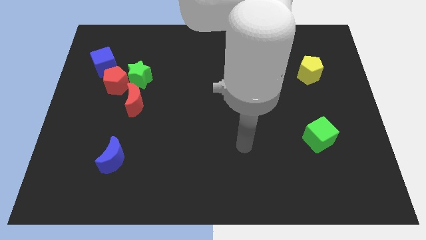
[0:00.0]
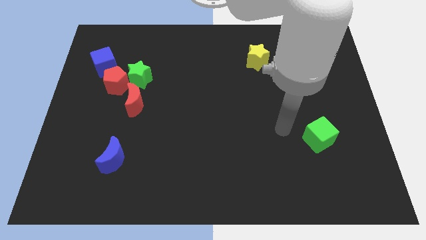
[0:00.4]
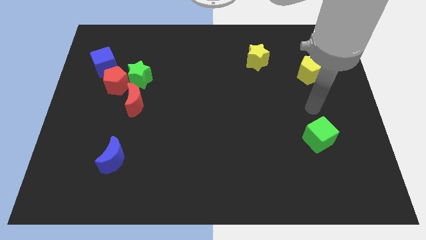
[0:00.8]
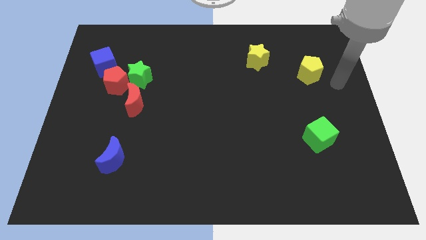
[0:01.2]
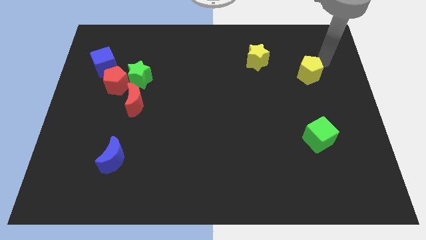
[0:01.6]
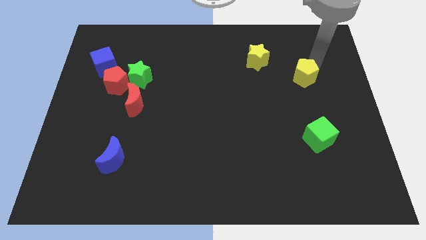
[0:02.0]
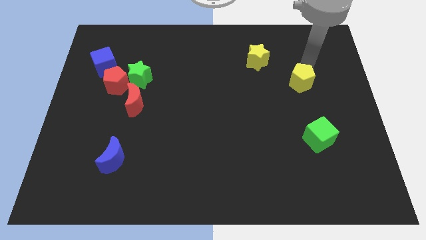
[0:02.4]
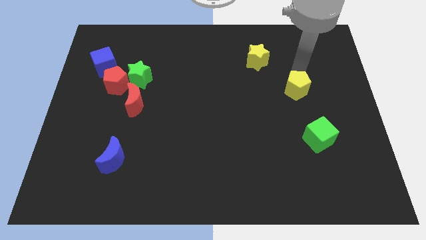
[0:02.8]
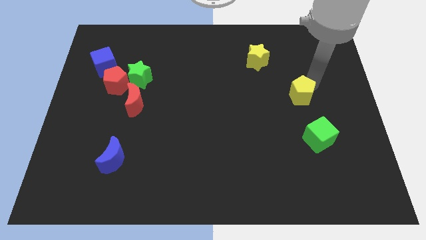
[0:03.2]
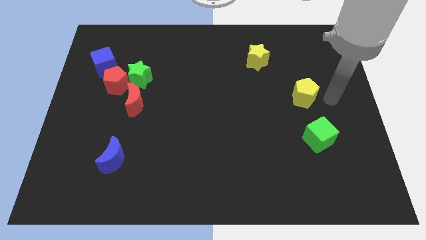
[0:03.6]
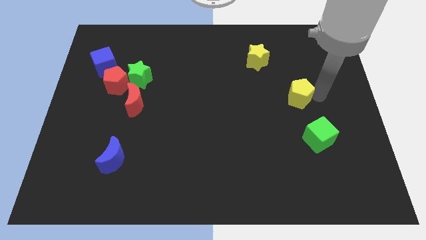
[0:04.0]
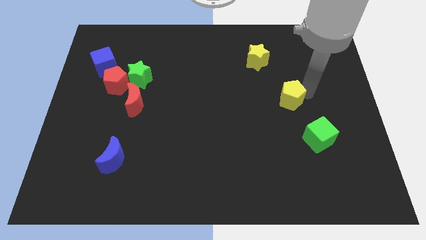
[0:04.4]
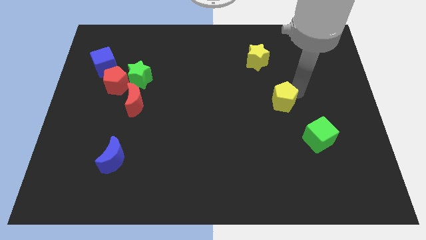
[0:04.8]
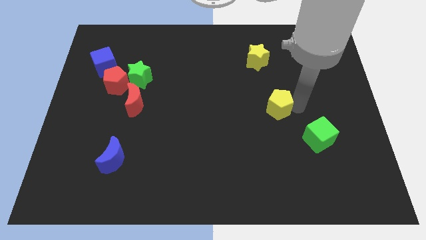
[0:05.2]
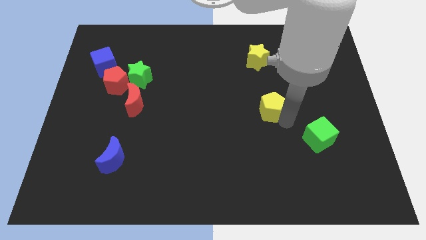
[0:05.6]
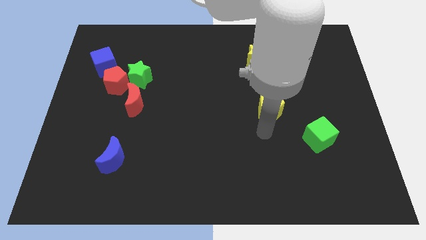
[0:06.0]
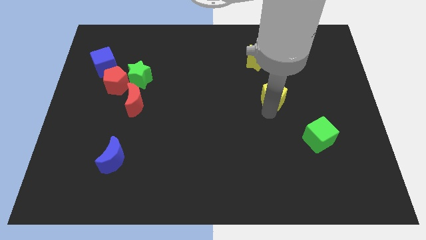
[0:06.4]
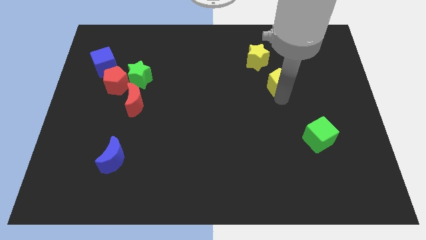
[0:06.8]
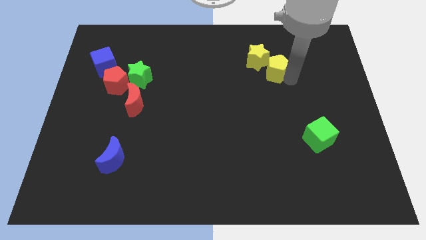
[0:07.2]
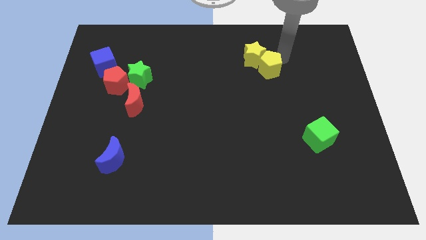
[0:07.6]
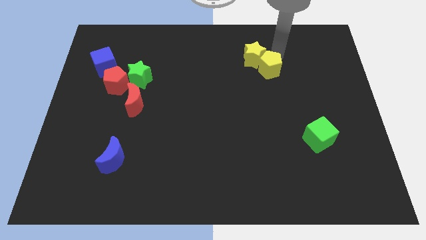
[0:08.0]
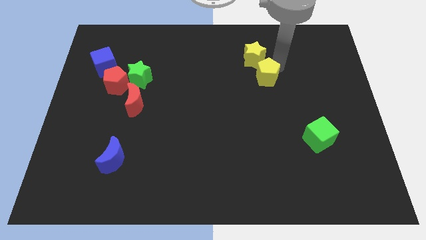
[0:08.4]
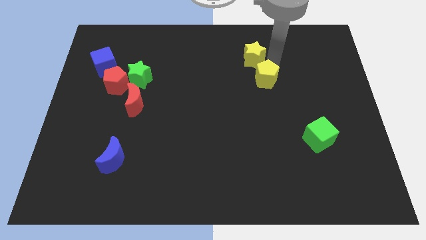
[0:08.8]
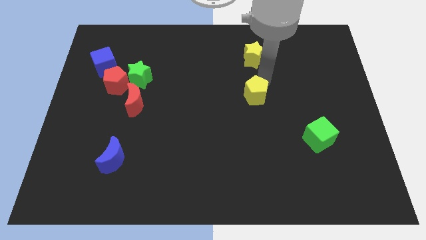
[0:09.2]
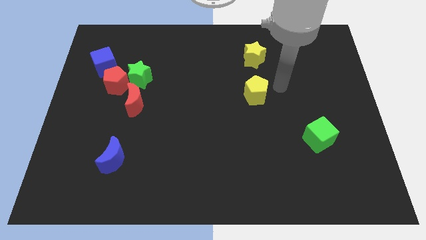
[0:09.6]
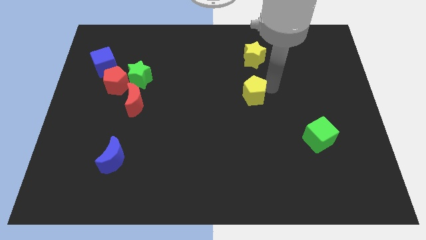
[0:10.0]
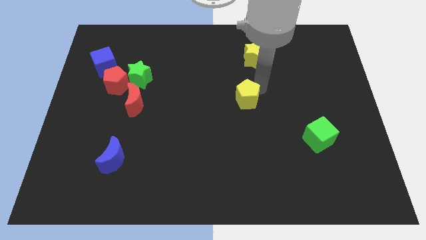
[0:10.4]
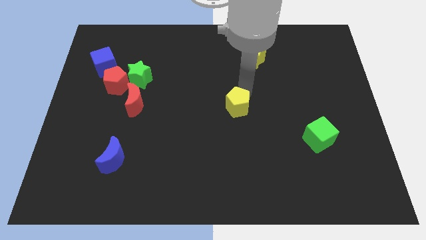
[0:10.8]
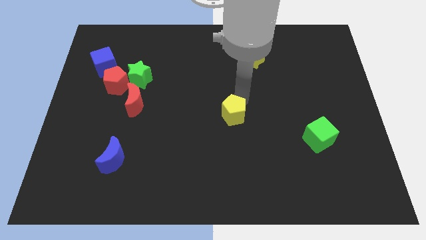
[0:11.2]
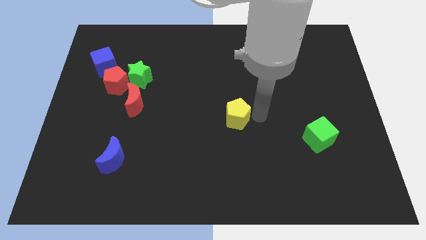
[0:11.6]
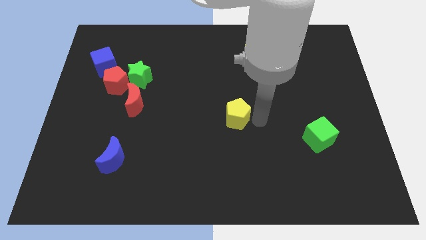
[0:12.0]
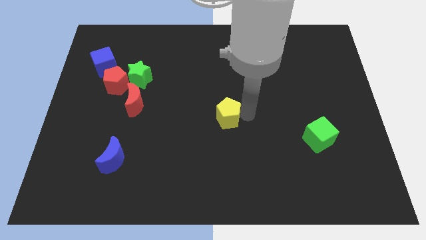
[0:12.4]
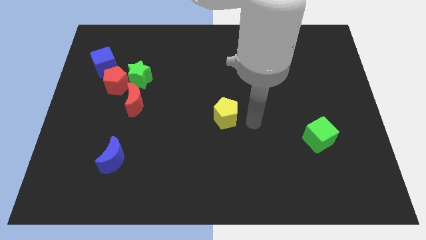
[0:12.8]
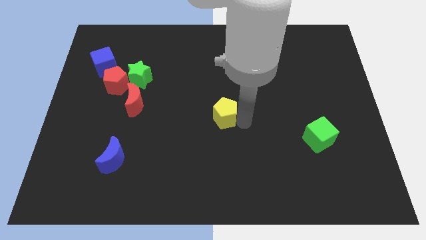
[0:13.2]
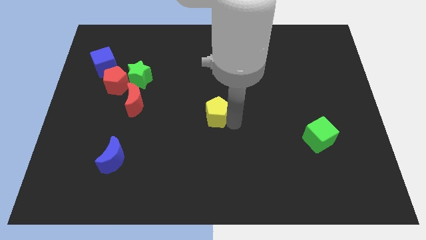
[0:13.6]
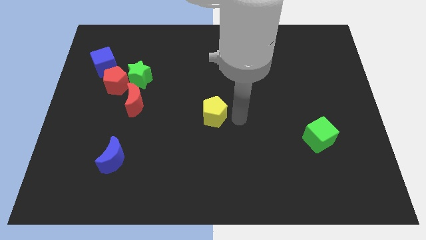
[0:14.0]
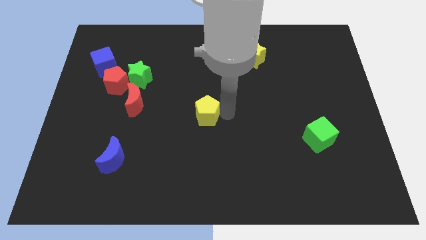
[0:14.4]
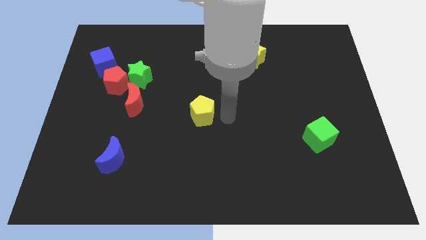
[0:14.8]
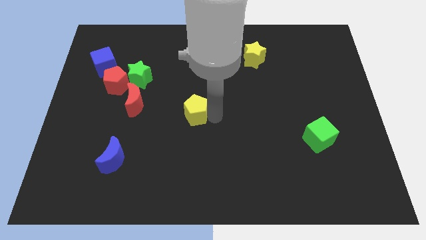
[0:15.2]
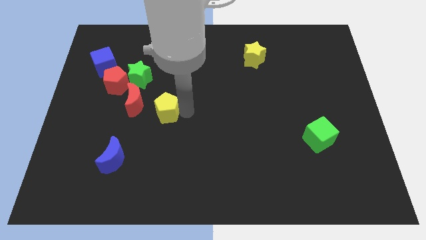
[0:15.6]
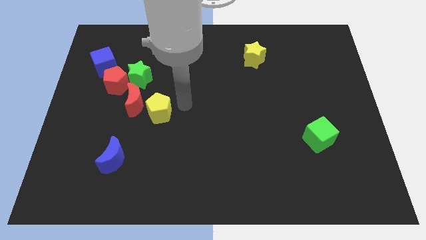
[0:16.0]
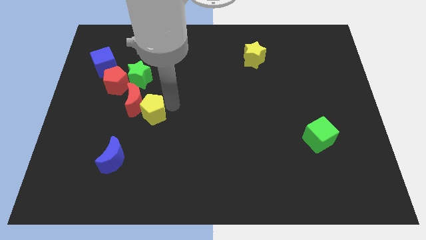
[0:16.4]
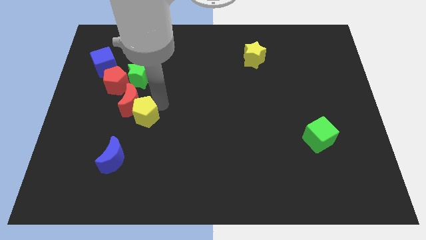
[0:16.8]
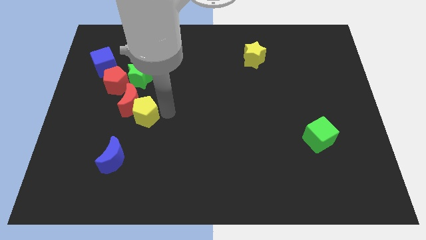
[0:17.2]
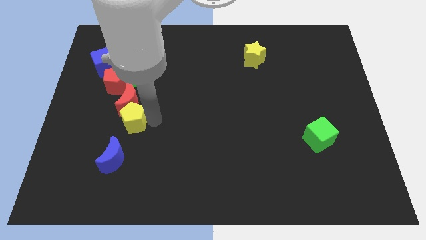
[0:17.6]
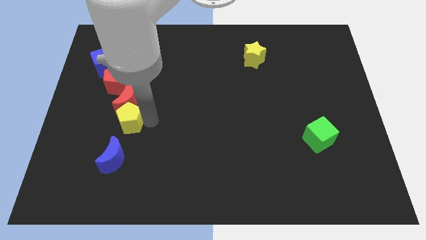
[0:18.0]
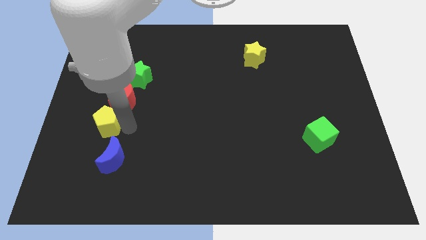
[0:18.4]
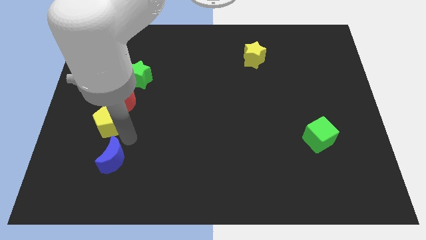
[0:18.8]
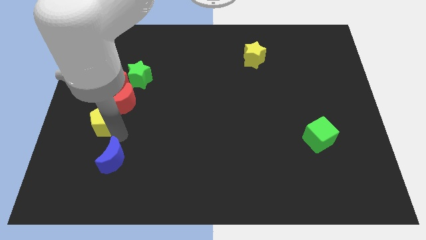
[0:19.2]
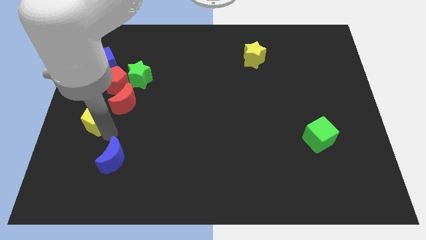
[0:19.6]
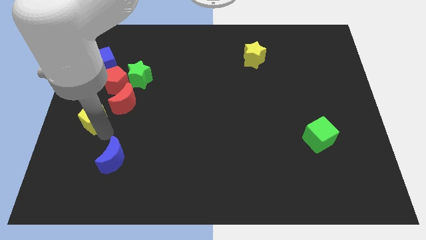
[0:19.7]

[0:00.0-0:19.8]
put the yellow pentagon to the left side
